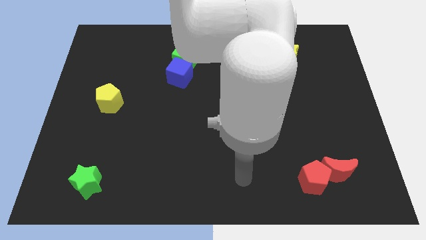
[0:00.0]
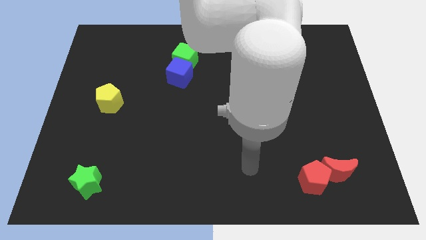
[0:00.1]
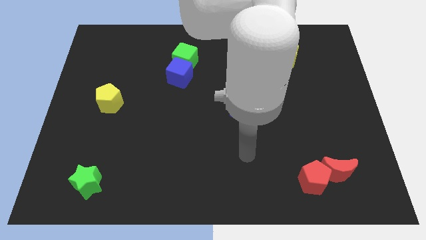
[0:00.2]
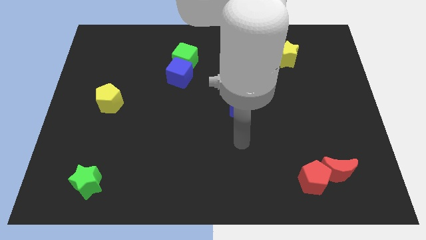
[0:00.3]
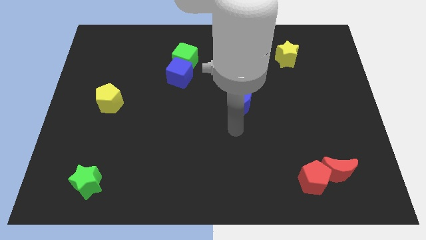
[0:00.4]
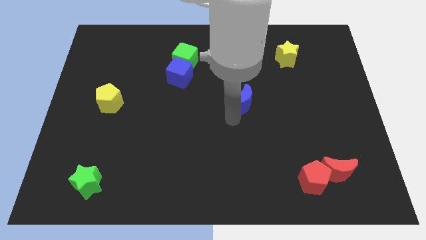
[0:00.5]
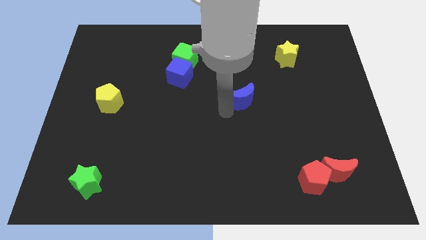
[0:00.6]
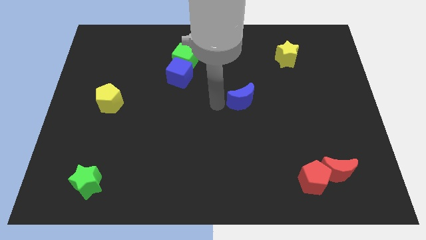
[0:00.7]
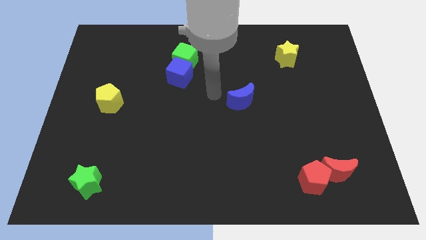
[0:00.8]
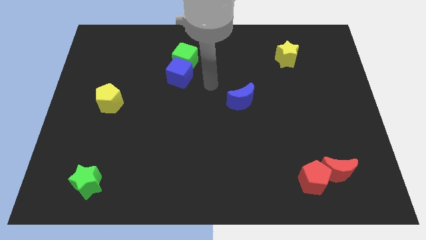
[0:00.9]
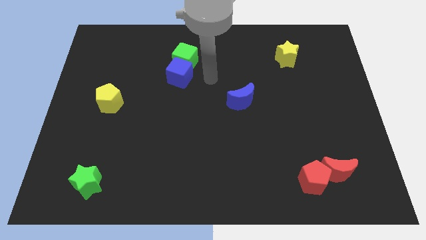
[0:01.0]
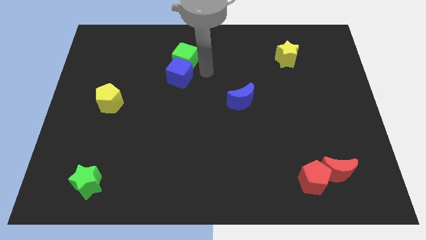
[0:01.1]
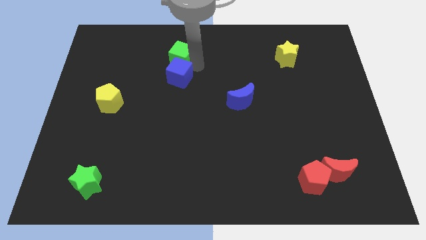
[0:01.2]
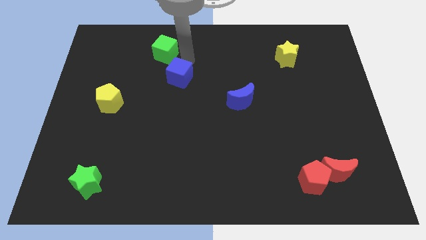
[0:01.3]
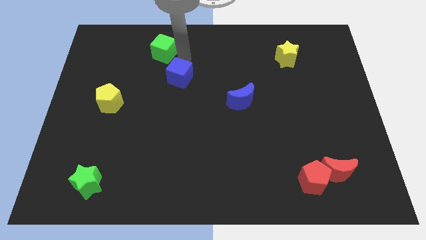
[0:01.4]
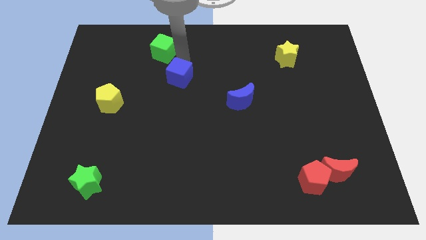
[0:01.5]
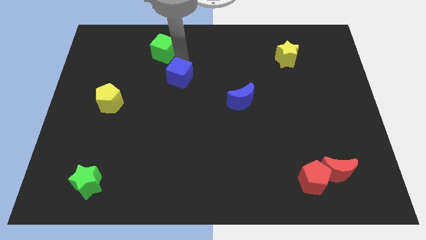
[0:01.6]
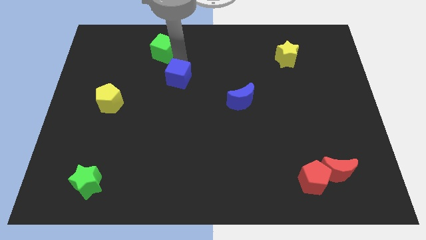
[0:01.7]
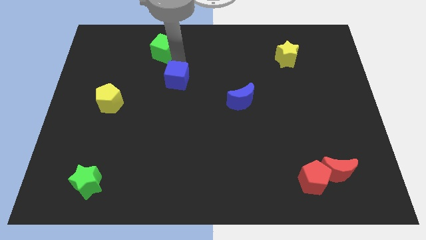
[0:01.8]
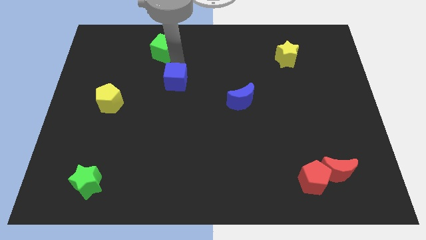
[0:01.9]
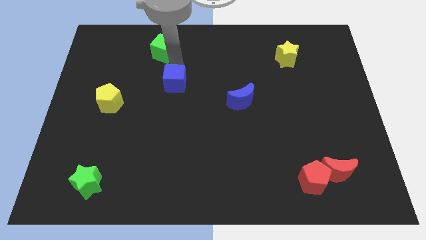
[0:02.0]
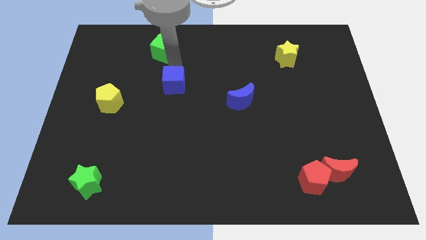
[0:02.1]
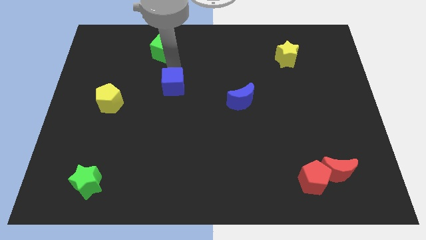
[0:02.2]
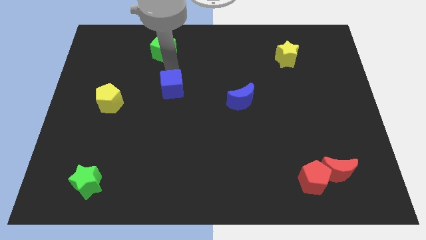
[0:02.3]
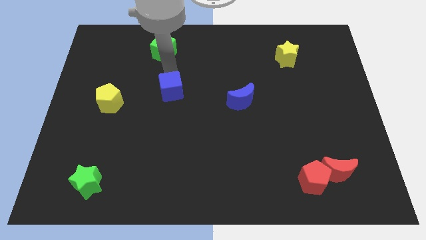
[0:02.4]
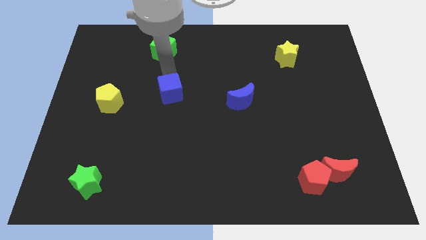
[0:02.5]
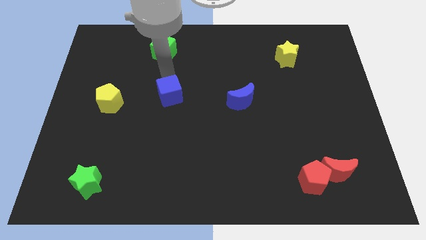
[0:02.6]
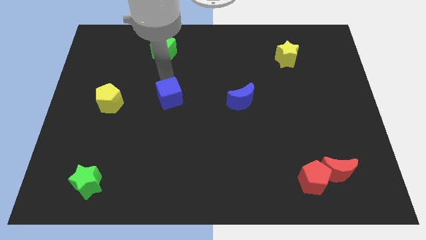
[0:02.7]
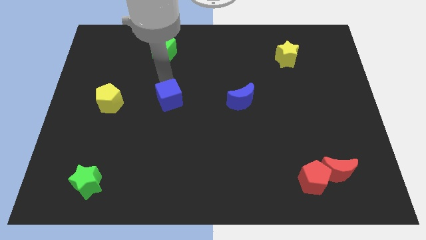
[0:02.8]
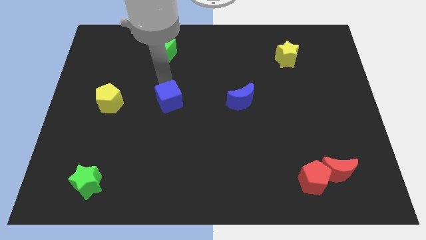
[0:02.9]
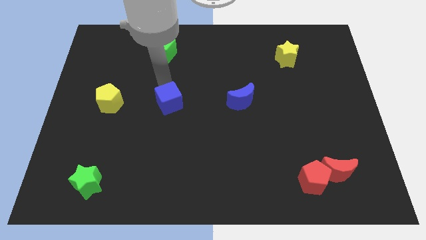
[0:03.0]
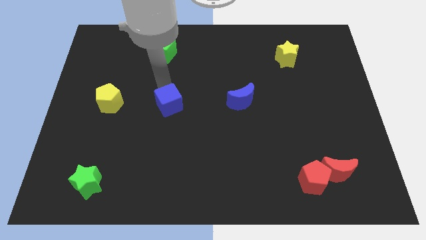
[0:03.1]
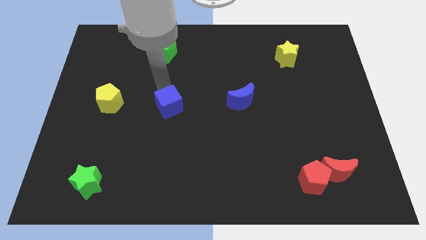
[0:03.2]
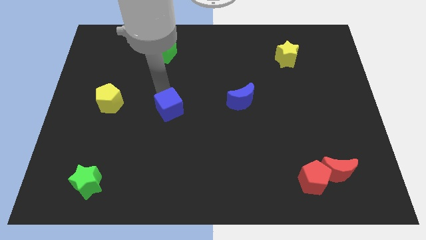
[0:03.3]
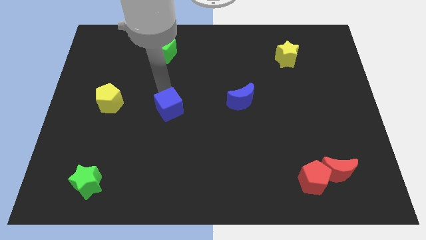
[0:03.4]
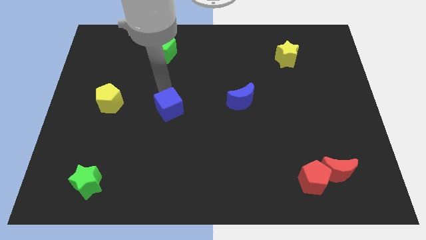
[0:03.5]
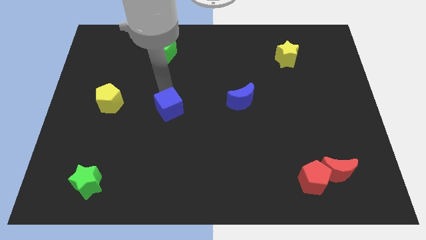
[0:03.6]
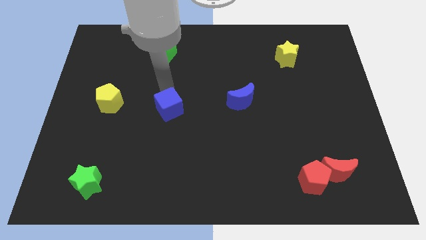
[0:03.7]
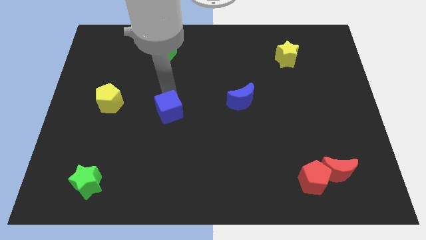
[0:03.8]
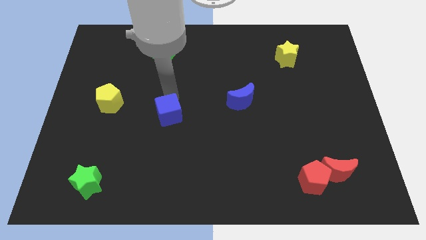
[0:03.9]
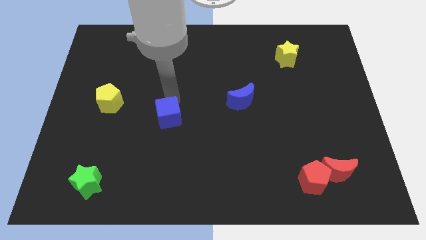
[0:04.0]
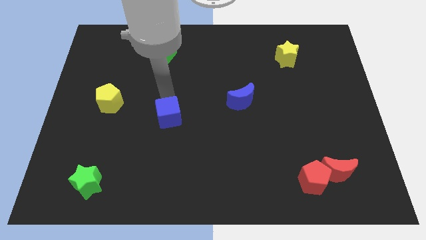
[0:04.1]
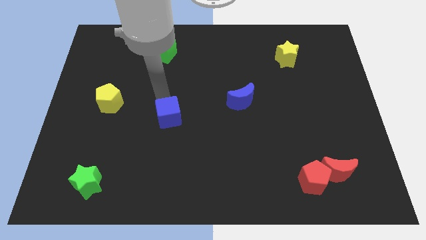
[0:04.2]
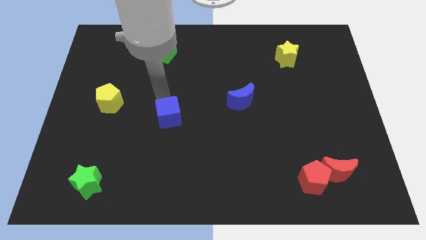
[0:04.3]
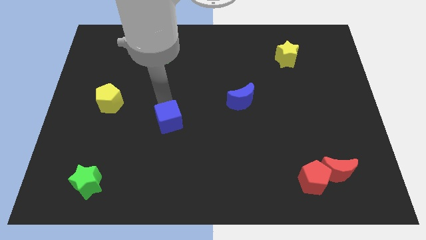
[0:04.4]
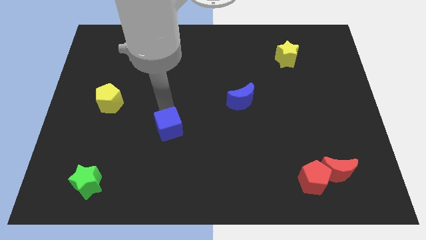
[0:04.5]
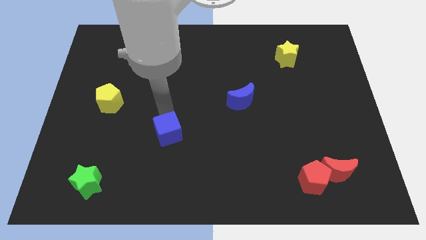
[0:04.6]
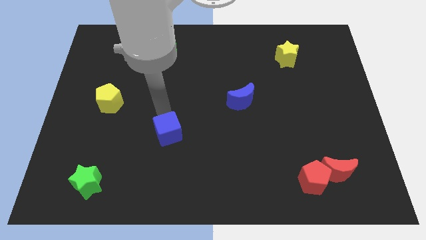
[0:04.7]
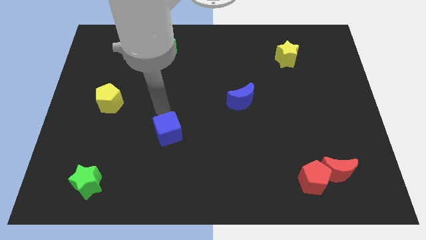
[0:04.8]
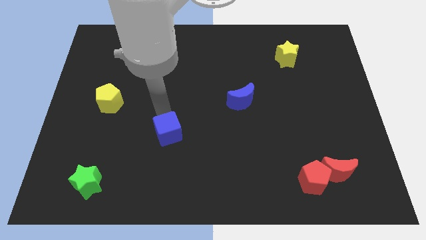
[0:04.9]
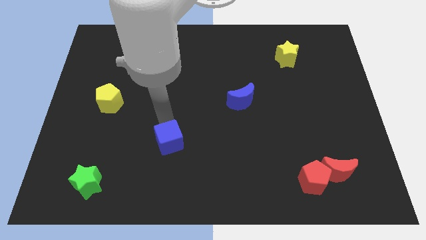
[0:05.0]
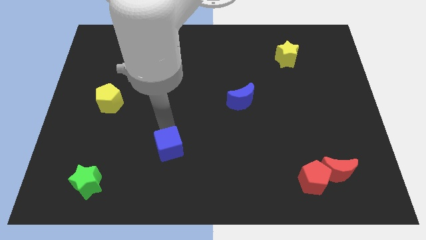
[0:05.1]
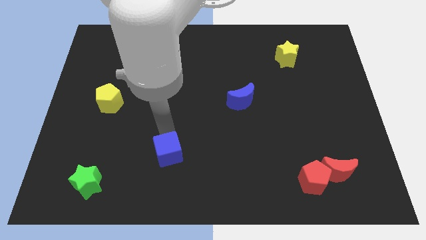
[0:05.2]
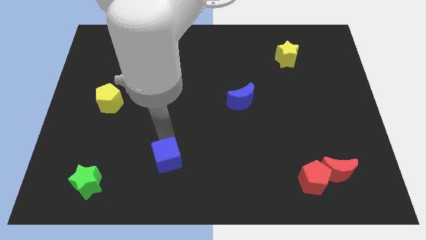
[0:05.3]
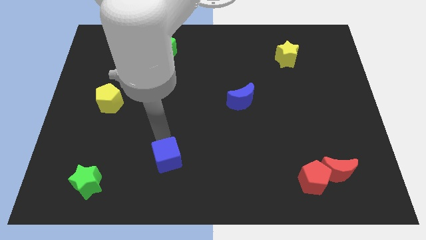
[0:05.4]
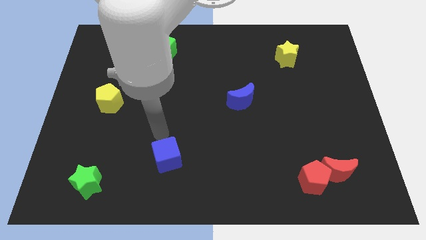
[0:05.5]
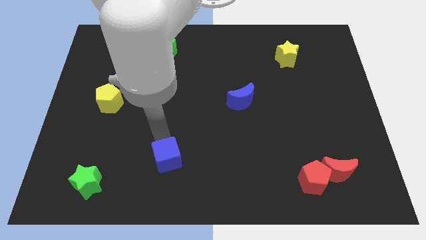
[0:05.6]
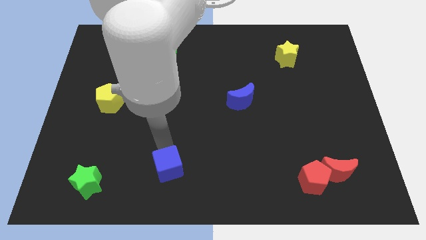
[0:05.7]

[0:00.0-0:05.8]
slide the blue cube to the bottom

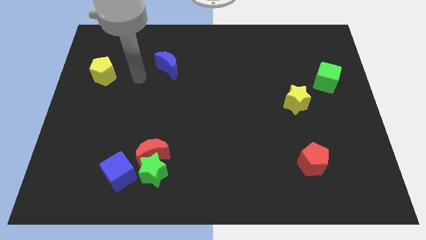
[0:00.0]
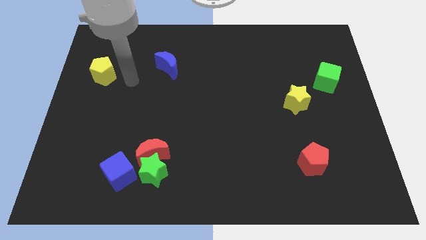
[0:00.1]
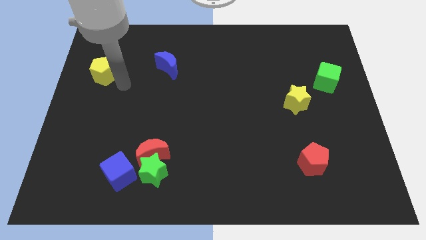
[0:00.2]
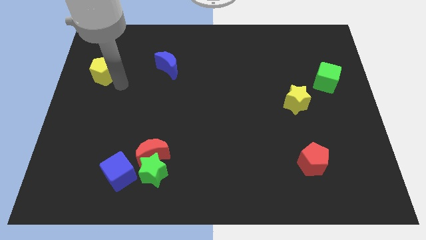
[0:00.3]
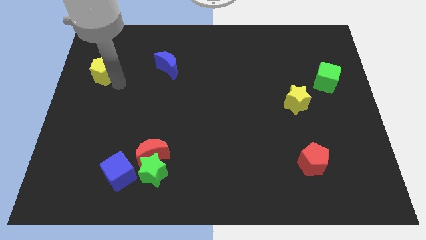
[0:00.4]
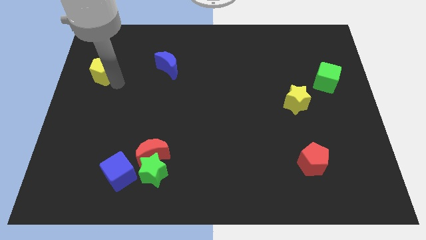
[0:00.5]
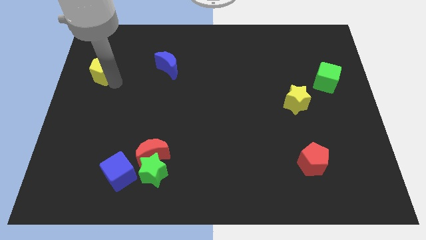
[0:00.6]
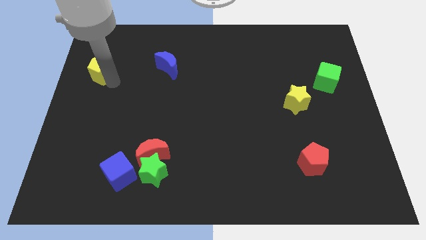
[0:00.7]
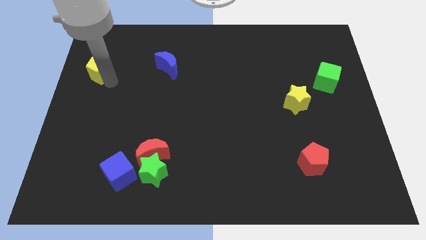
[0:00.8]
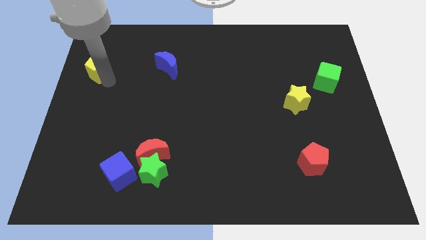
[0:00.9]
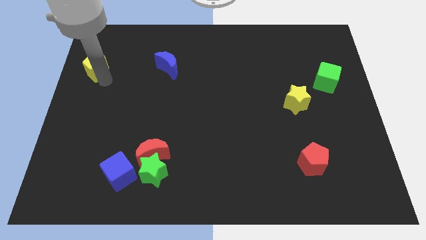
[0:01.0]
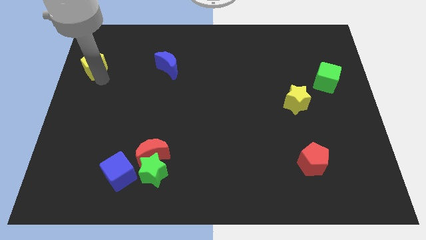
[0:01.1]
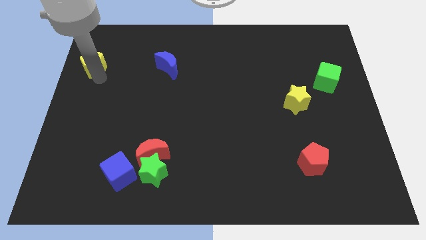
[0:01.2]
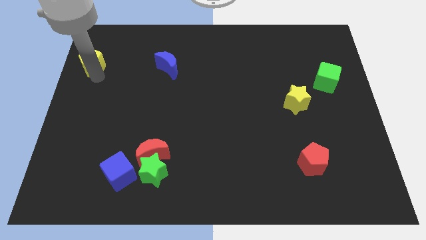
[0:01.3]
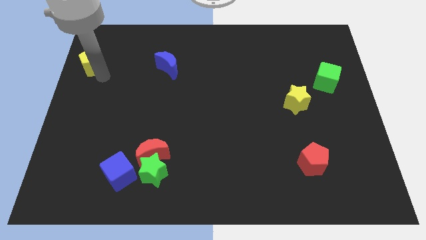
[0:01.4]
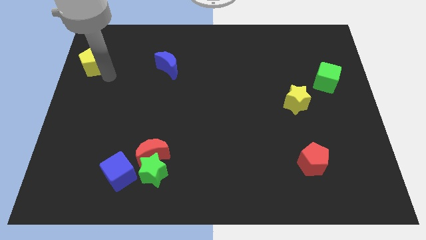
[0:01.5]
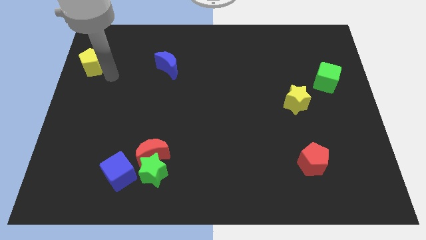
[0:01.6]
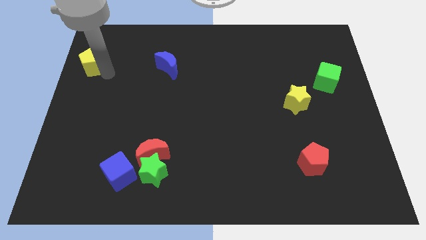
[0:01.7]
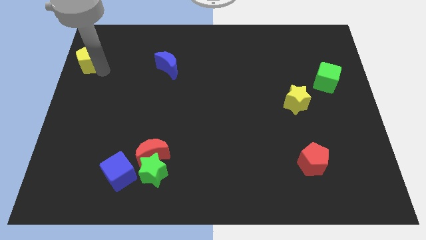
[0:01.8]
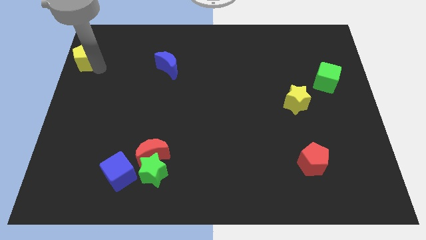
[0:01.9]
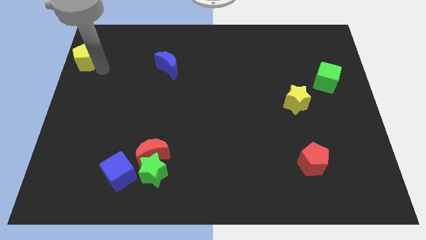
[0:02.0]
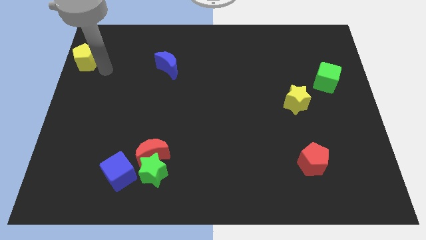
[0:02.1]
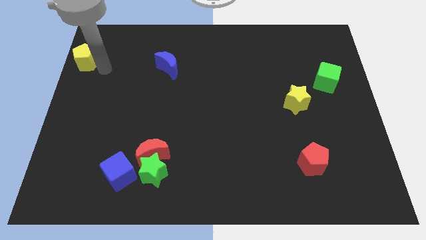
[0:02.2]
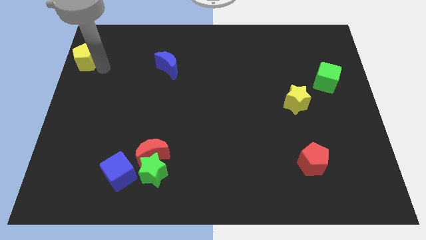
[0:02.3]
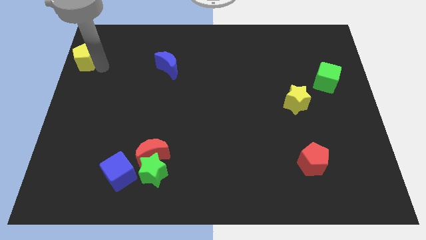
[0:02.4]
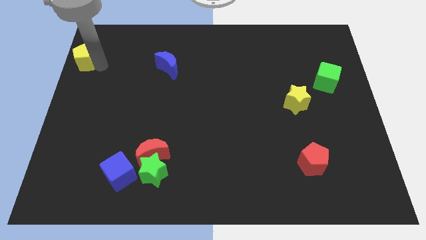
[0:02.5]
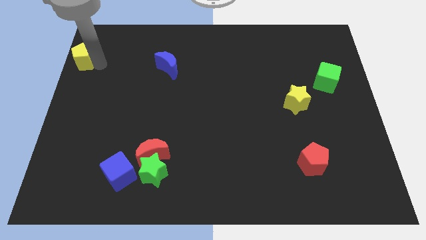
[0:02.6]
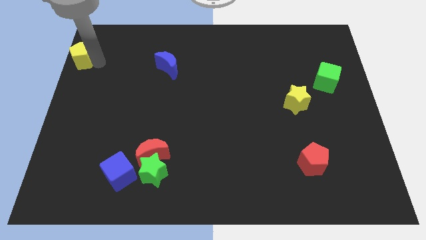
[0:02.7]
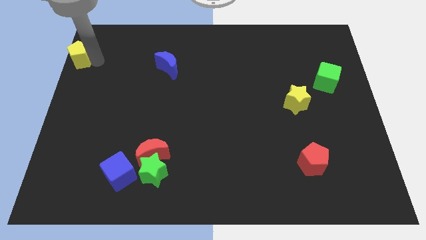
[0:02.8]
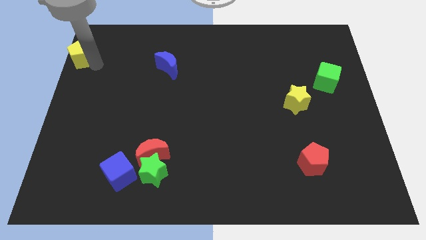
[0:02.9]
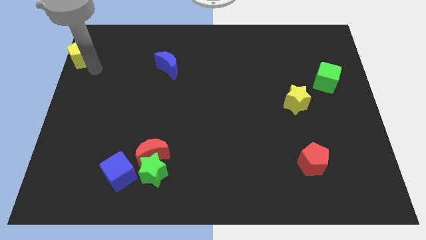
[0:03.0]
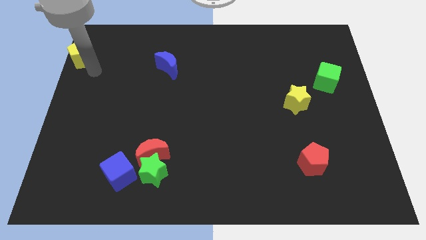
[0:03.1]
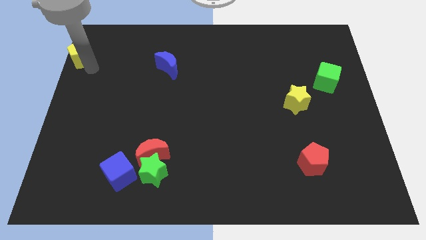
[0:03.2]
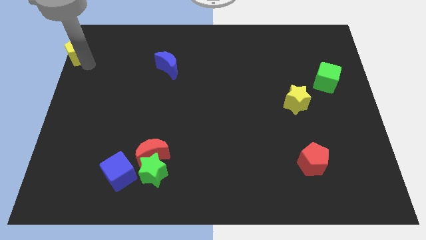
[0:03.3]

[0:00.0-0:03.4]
push the yellow pentagon to the top left of the board
